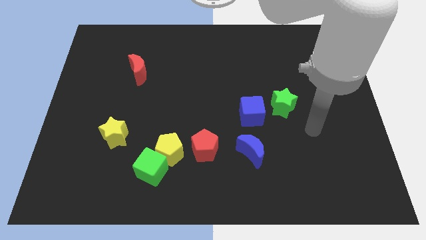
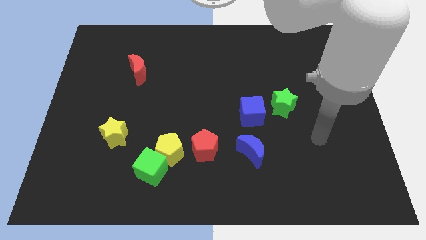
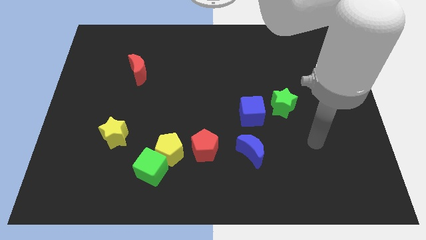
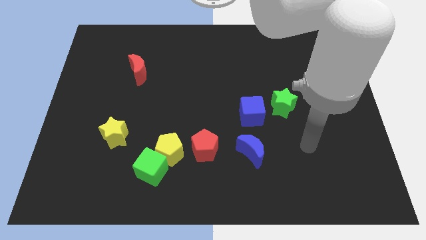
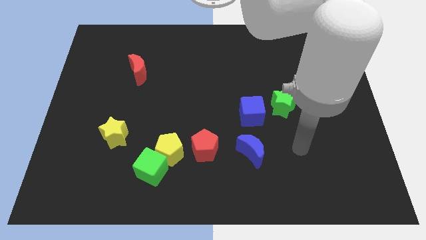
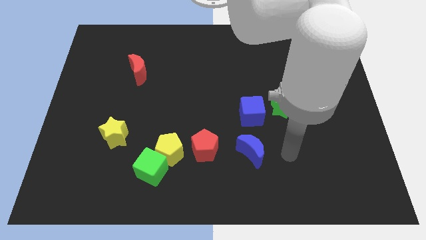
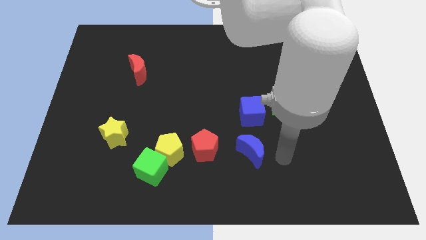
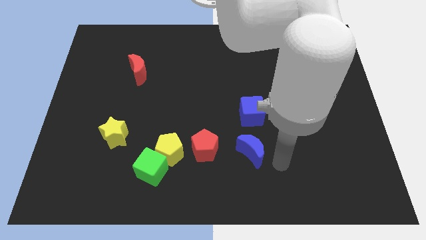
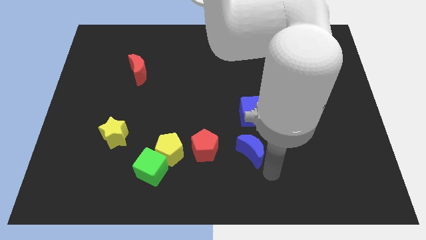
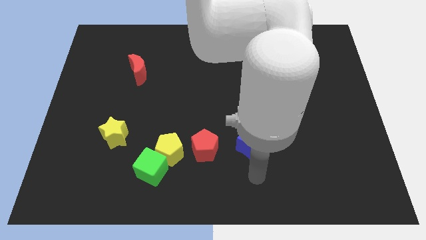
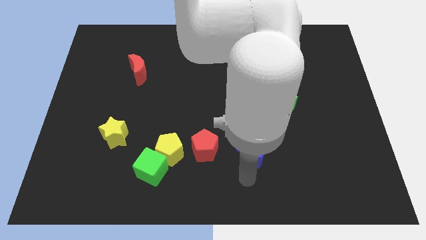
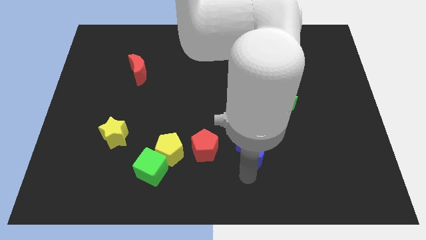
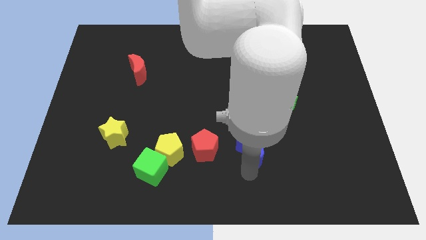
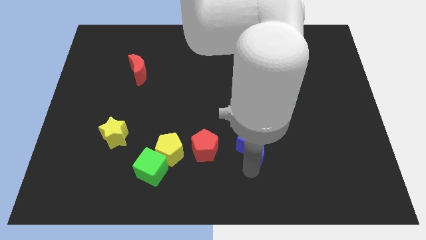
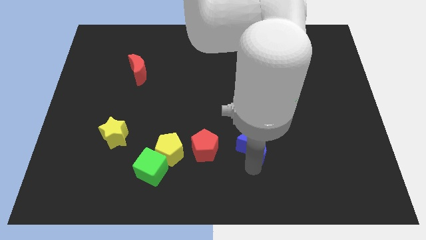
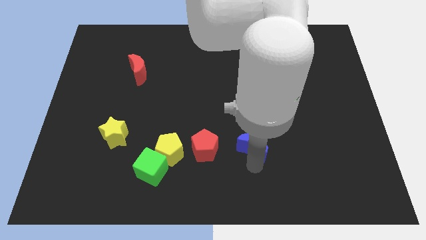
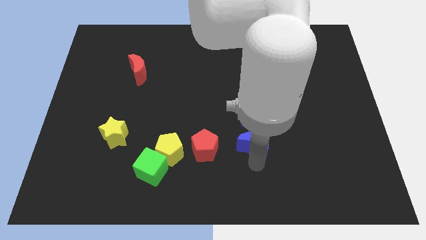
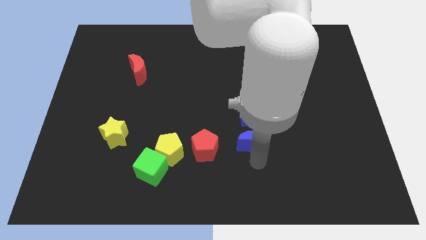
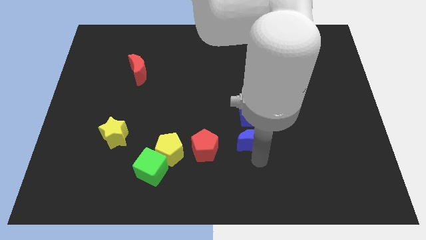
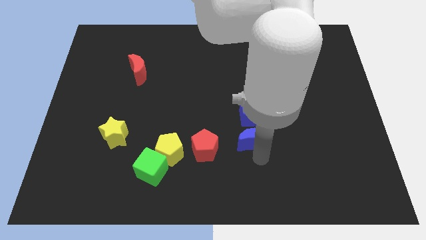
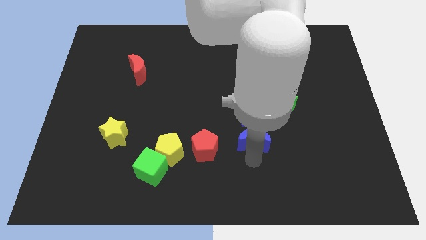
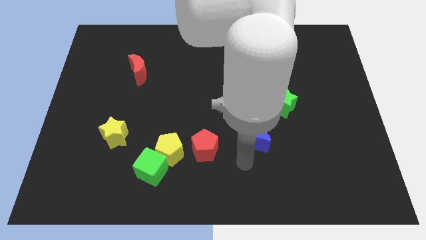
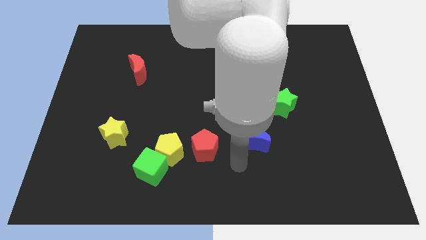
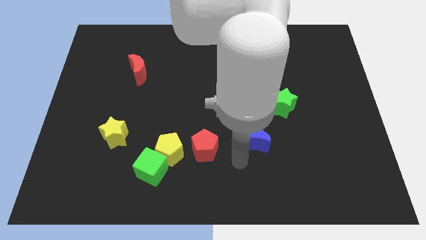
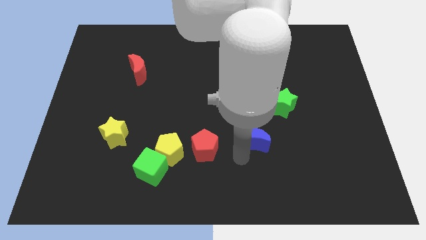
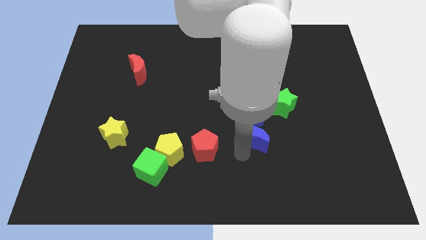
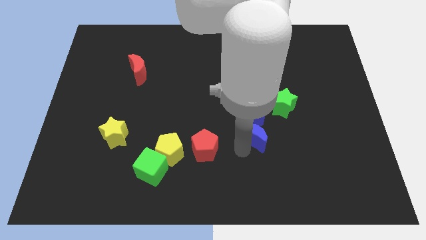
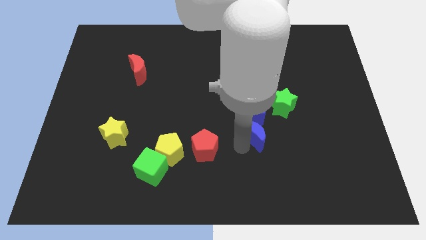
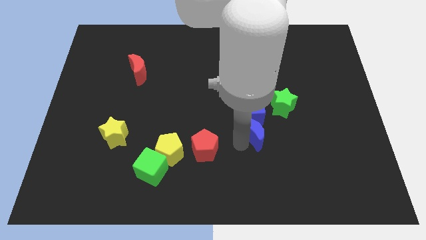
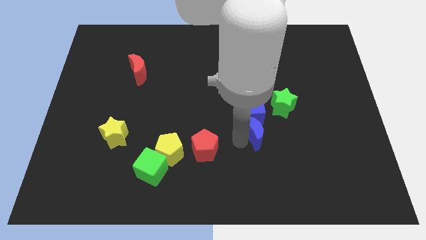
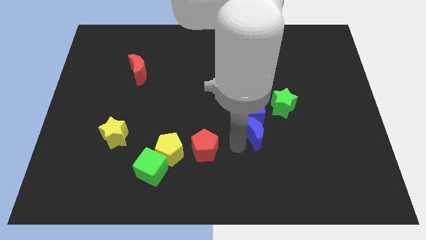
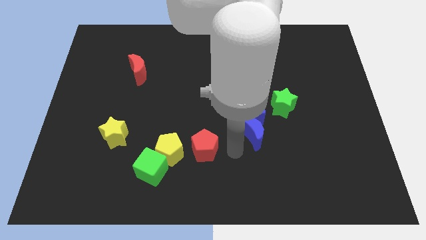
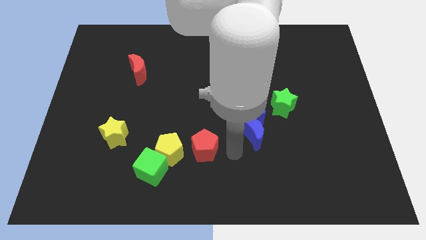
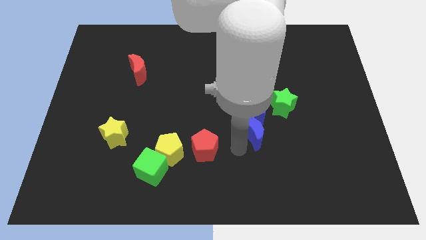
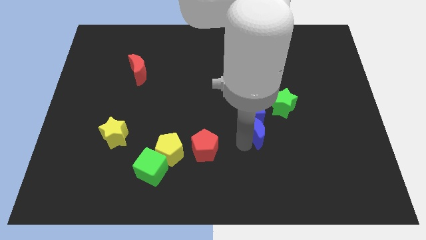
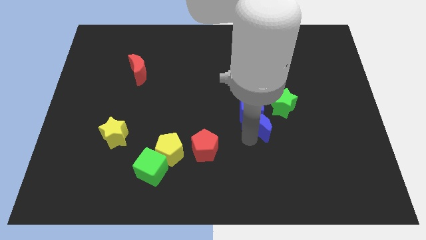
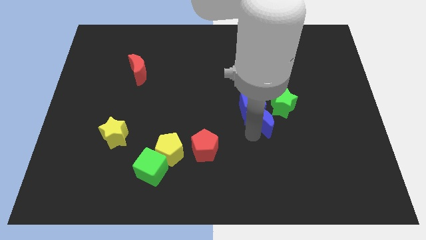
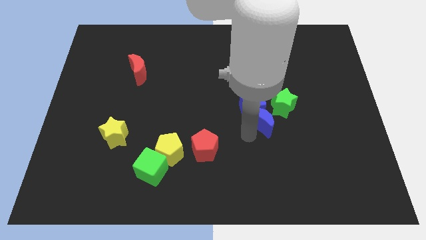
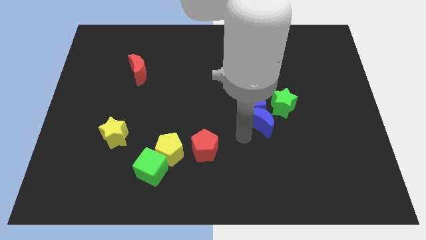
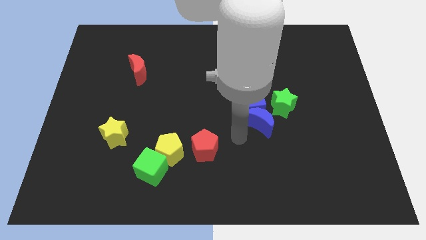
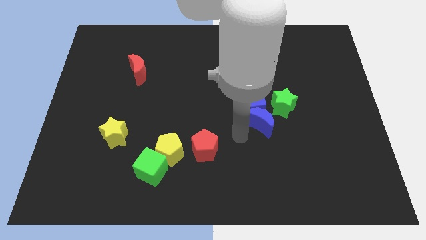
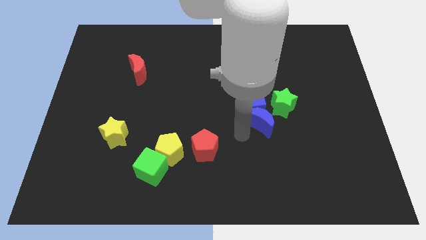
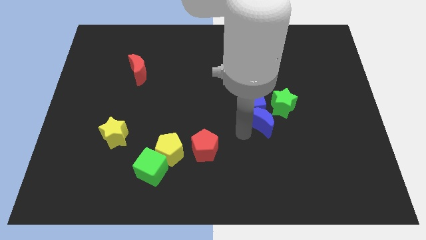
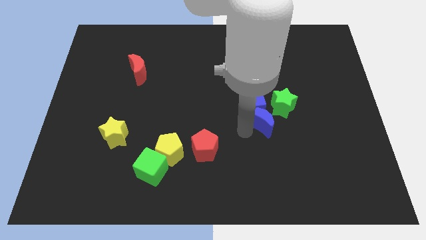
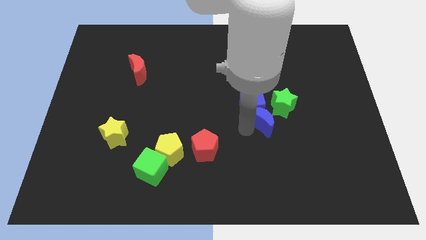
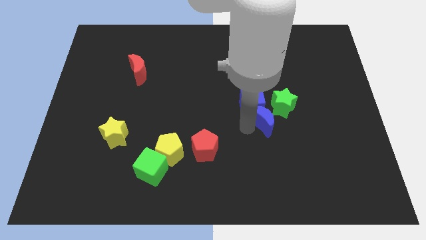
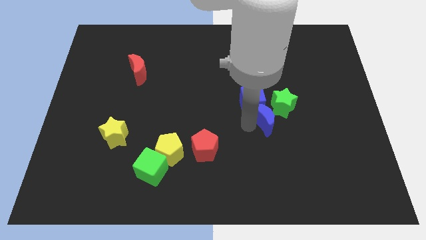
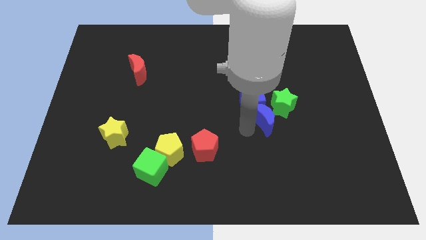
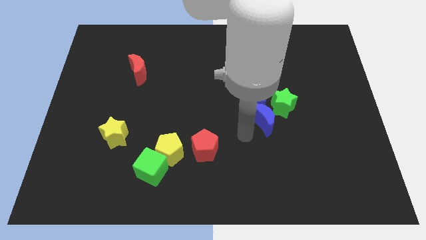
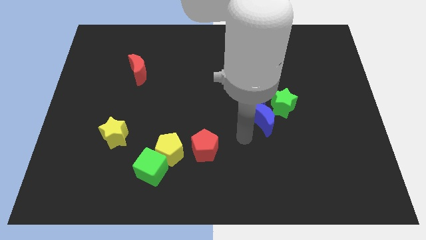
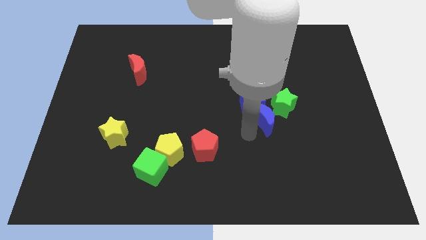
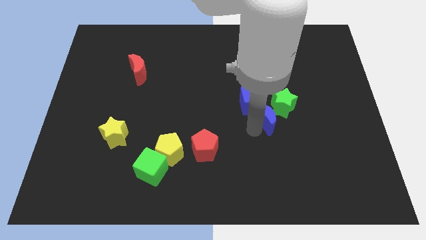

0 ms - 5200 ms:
put the blue moon to the green star

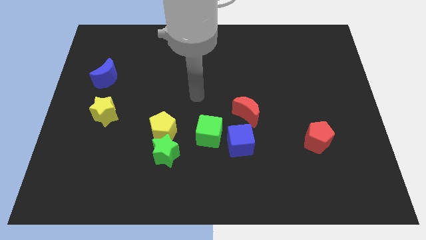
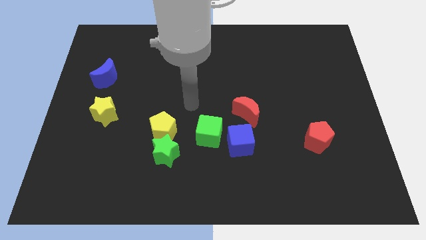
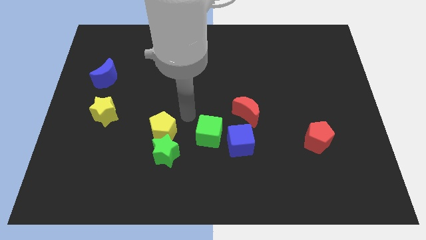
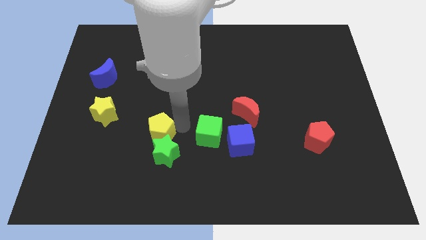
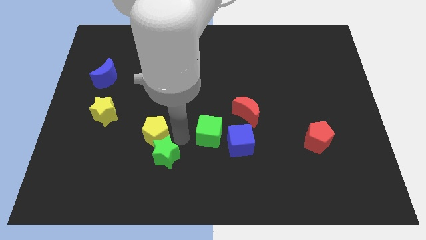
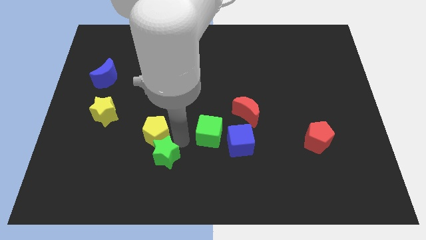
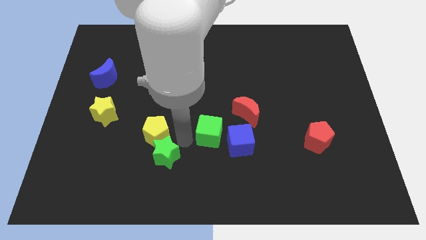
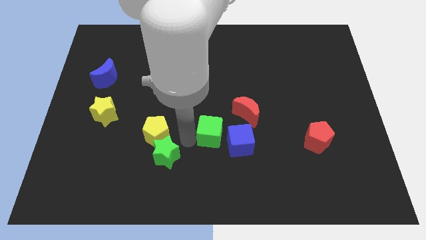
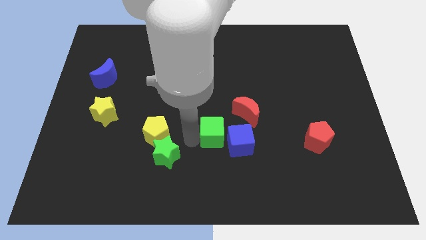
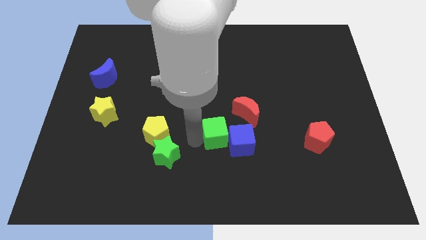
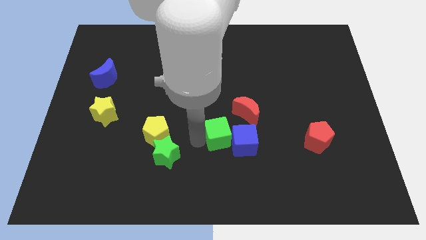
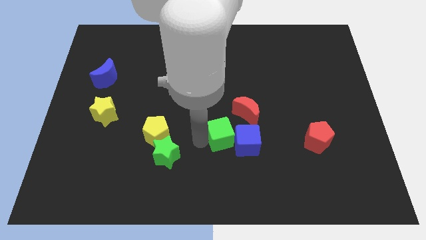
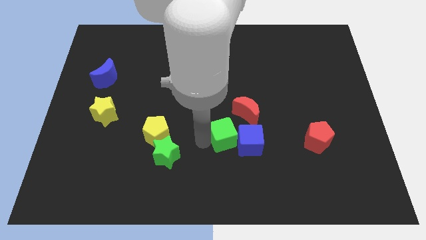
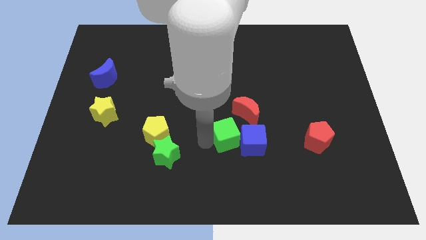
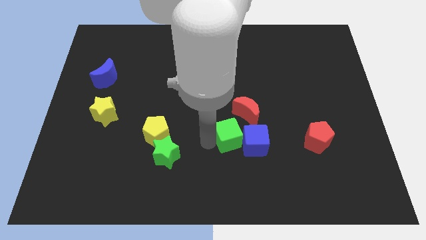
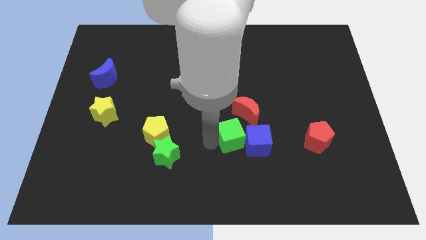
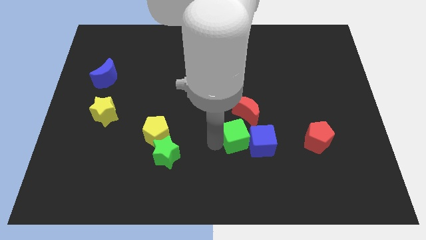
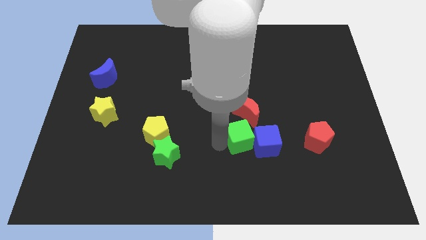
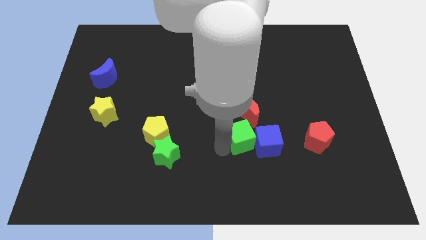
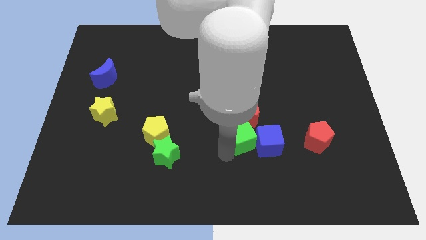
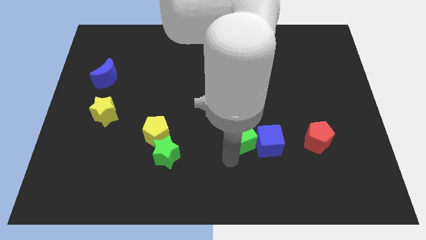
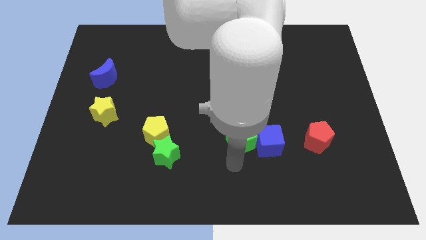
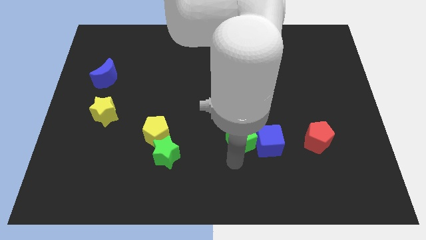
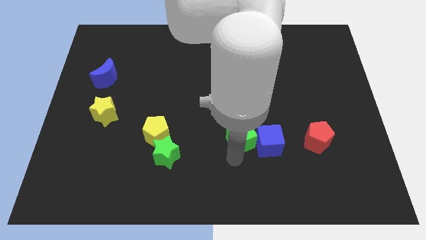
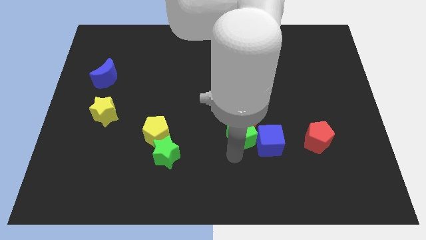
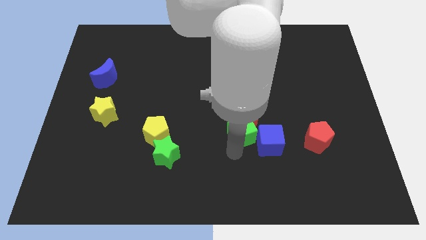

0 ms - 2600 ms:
put the green cube towards the red moon

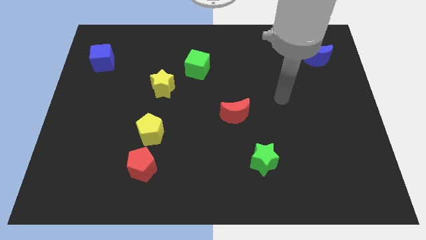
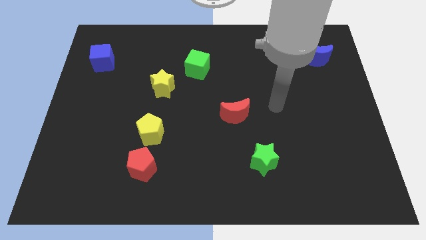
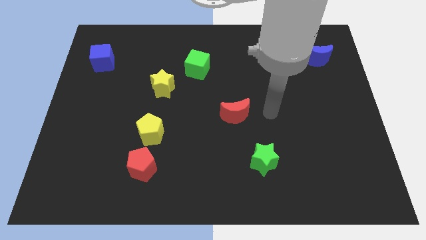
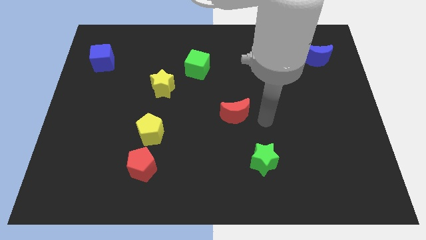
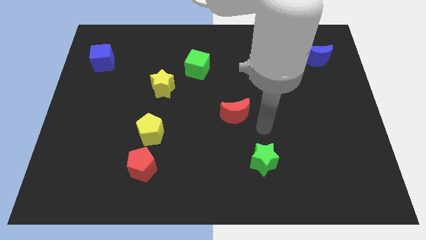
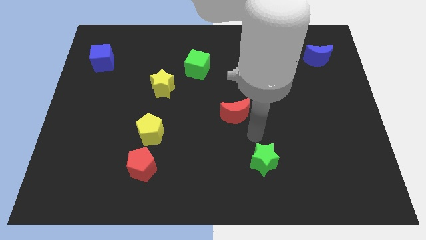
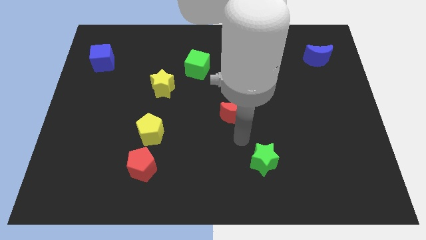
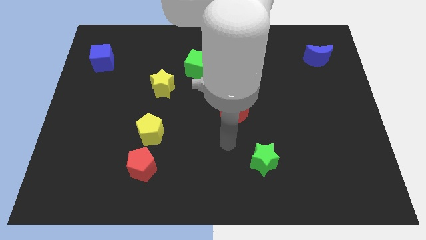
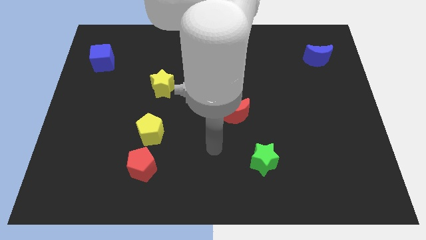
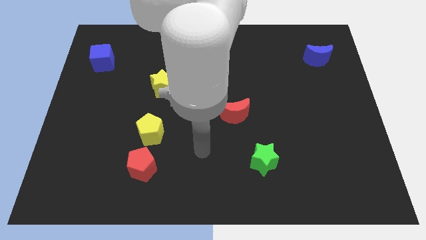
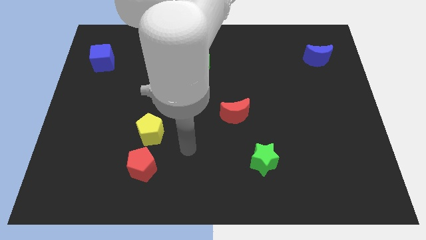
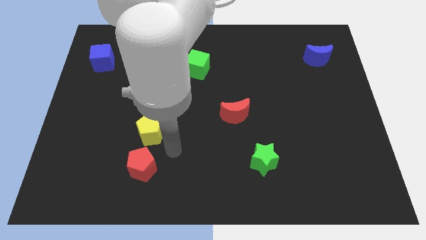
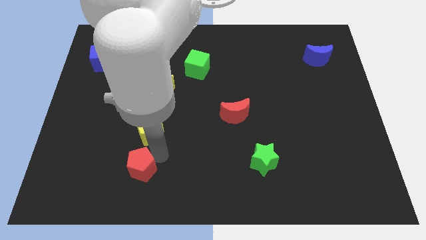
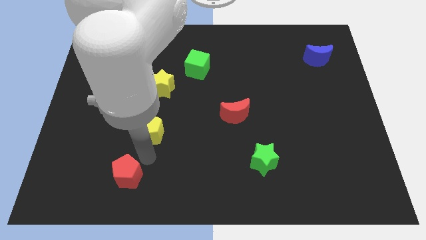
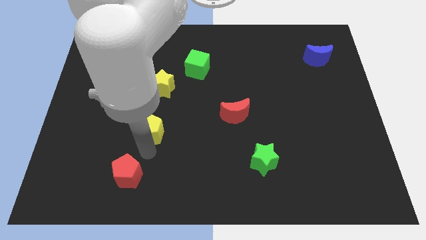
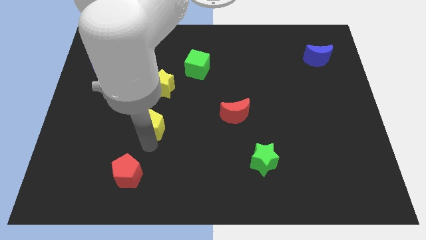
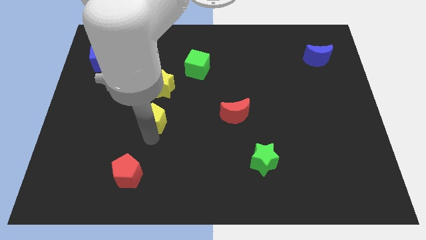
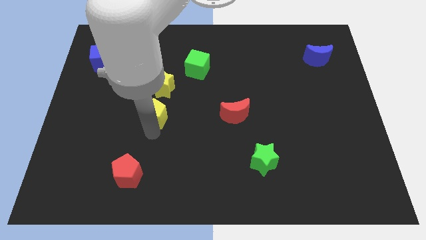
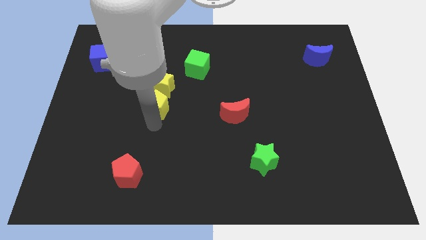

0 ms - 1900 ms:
push the yellow pentagon towards the yellow star
